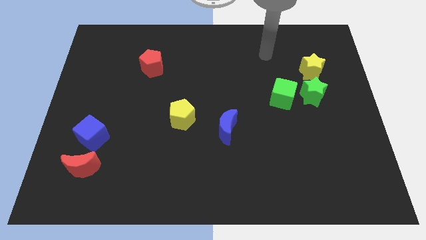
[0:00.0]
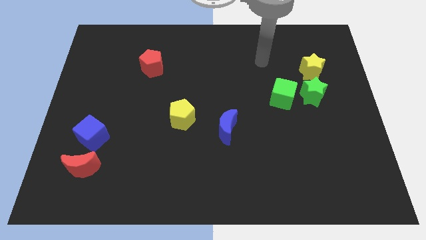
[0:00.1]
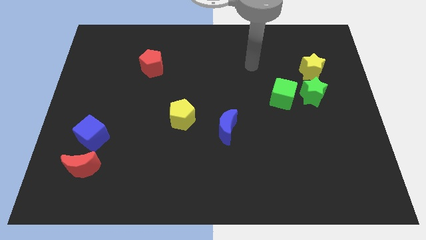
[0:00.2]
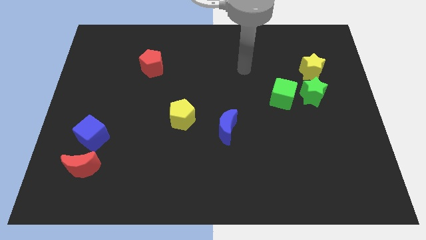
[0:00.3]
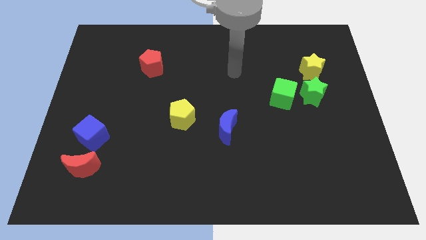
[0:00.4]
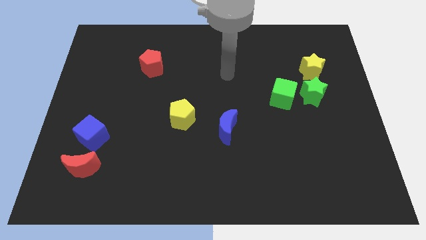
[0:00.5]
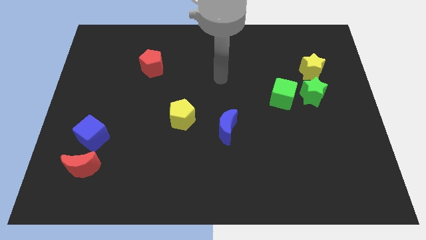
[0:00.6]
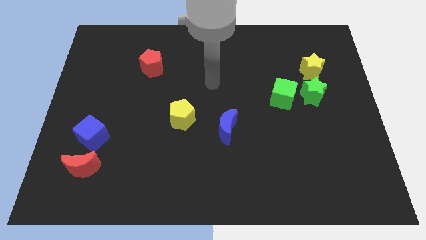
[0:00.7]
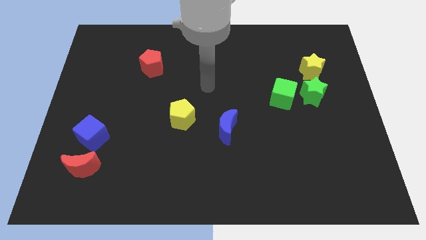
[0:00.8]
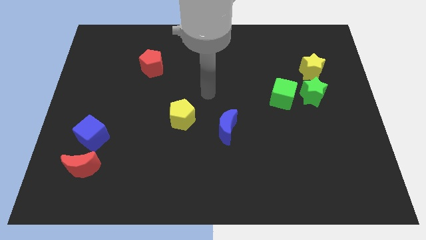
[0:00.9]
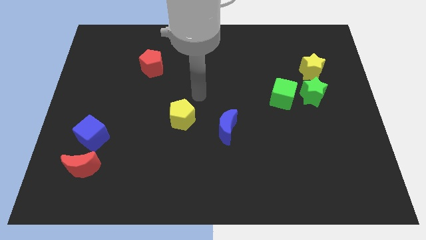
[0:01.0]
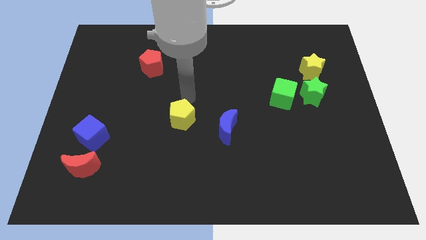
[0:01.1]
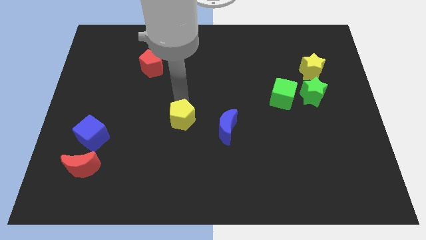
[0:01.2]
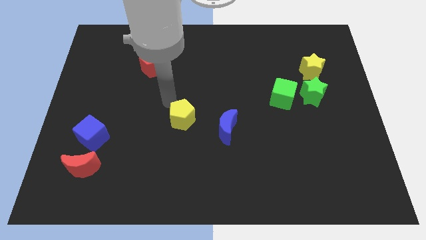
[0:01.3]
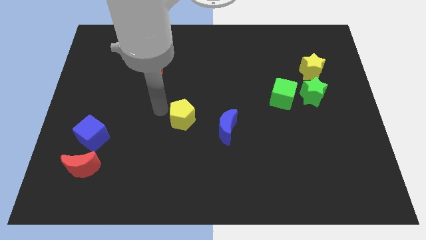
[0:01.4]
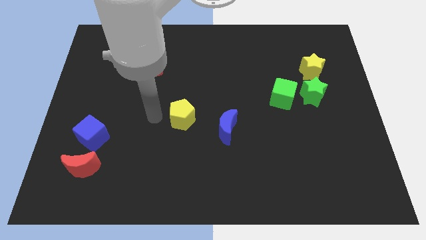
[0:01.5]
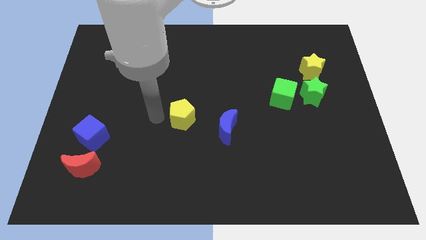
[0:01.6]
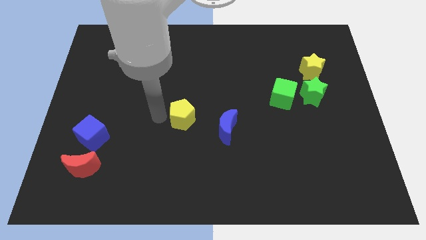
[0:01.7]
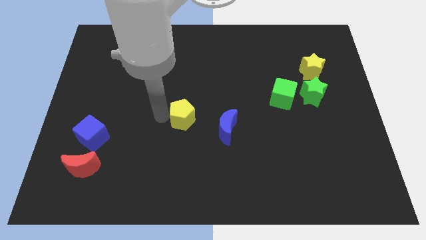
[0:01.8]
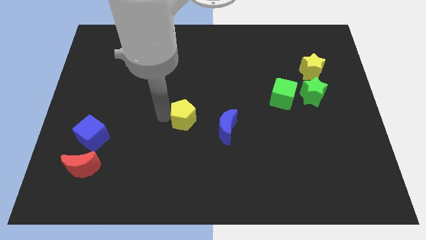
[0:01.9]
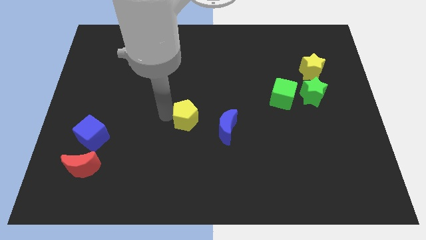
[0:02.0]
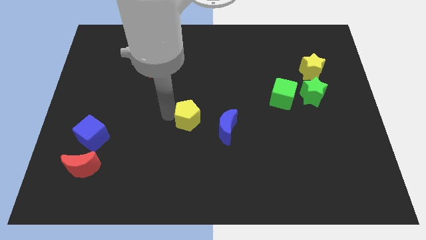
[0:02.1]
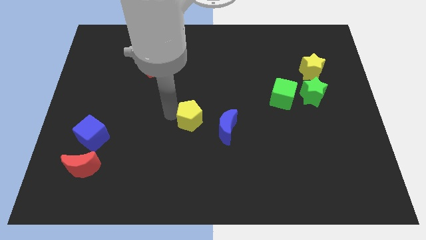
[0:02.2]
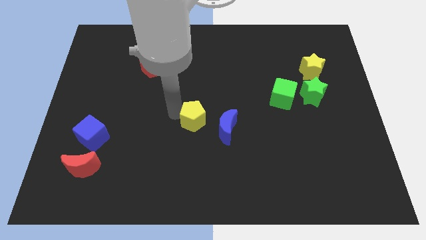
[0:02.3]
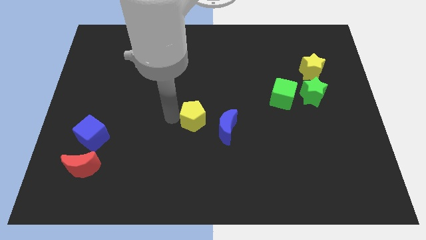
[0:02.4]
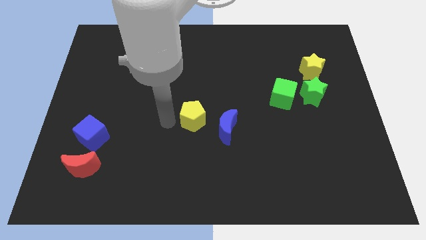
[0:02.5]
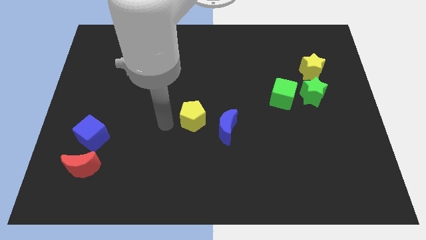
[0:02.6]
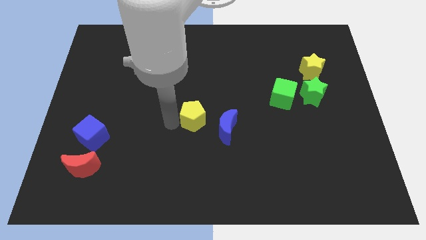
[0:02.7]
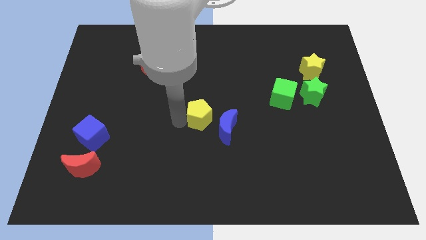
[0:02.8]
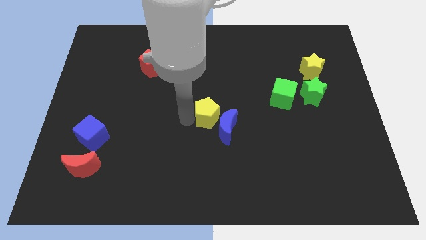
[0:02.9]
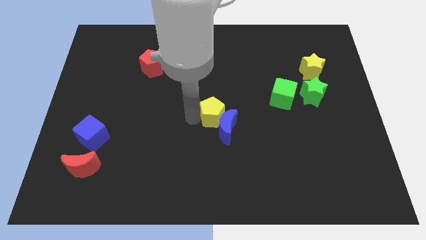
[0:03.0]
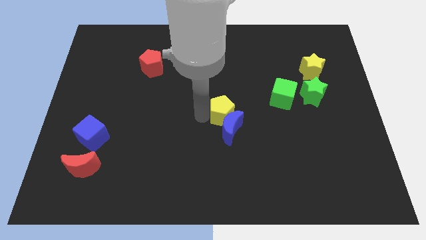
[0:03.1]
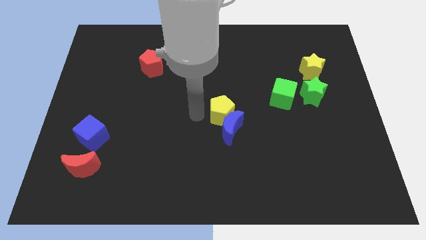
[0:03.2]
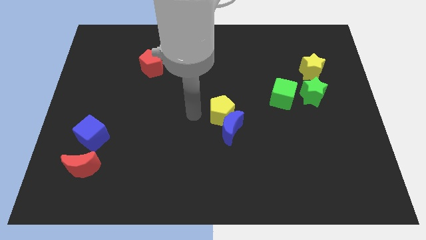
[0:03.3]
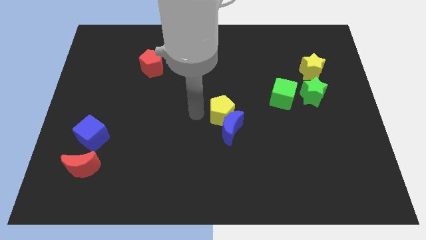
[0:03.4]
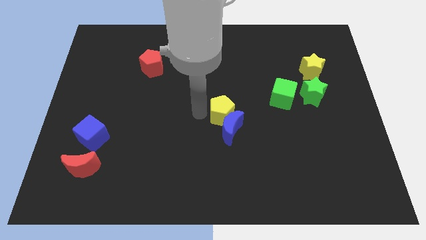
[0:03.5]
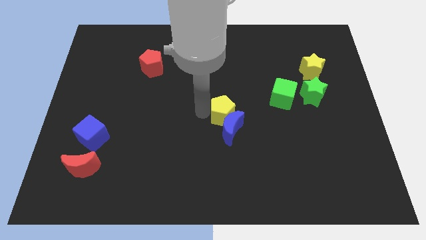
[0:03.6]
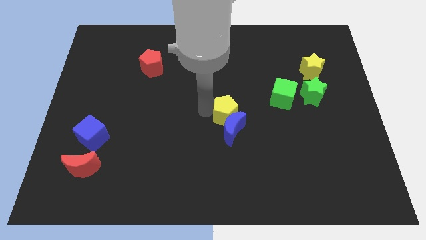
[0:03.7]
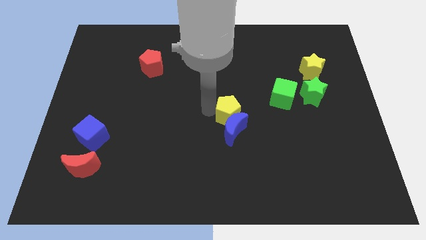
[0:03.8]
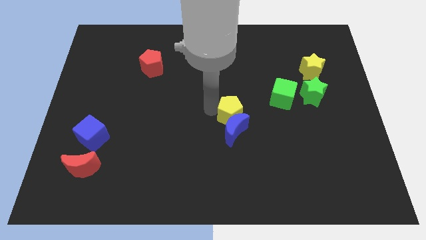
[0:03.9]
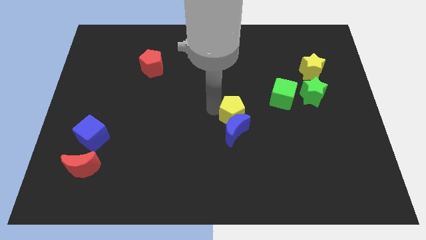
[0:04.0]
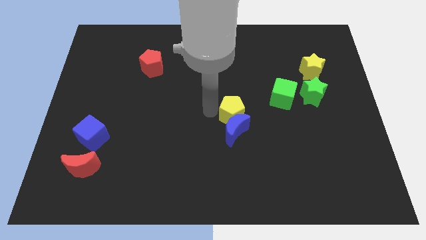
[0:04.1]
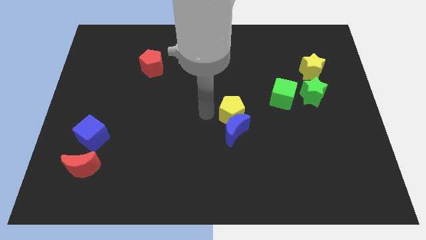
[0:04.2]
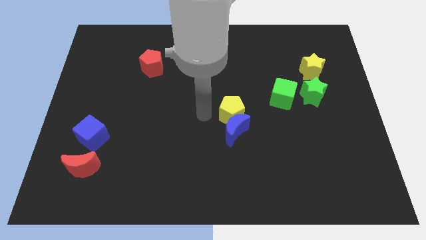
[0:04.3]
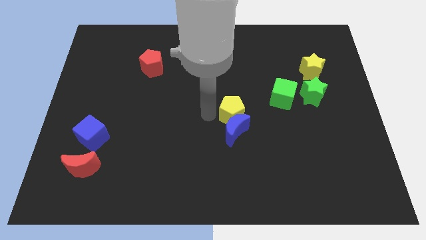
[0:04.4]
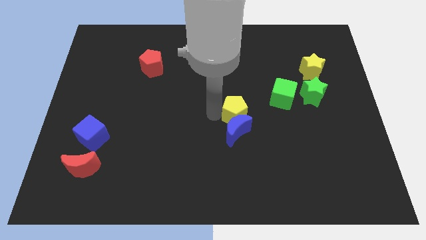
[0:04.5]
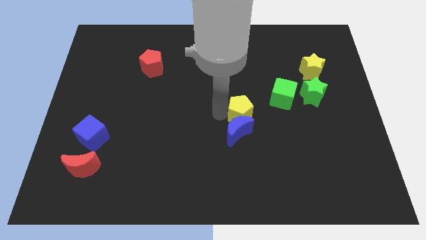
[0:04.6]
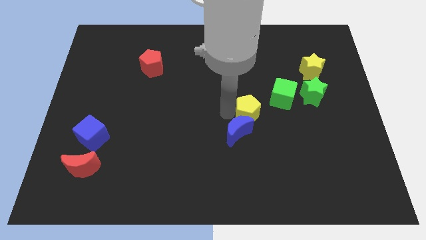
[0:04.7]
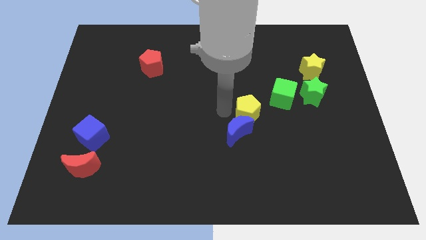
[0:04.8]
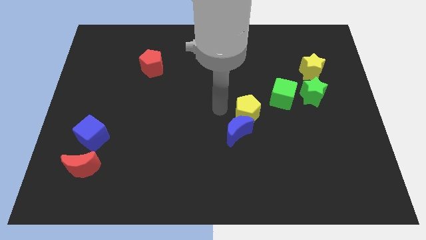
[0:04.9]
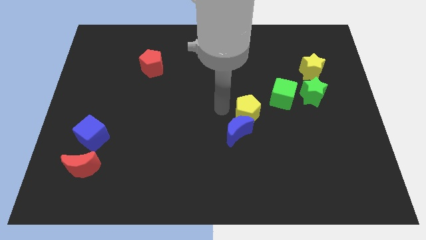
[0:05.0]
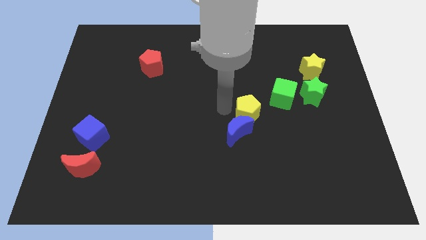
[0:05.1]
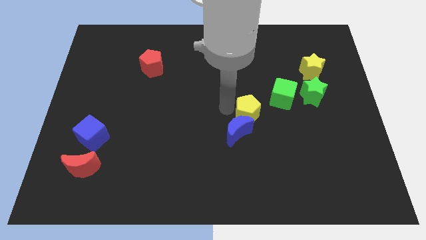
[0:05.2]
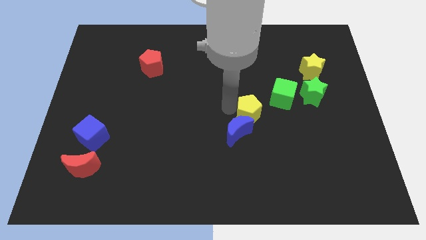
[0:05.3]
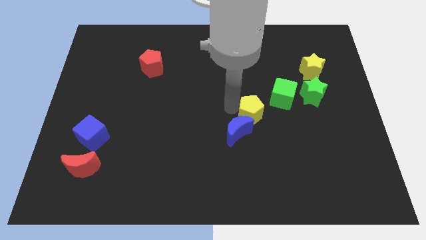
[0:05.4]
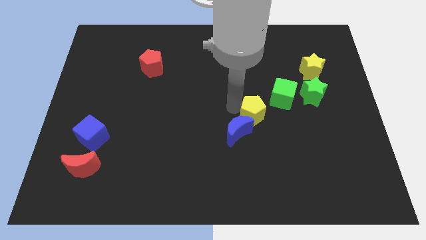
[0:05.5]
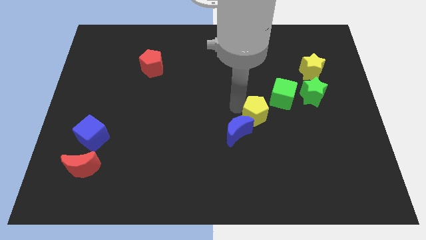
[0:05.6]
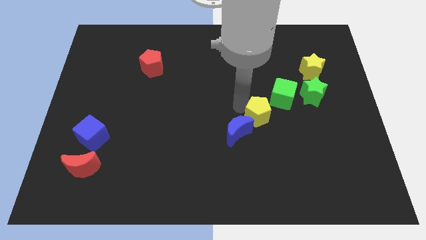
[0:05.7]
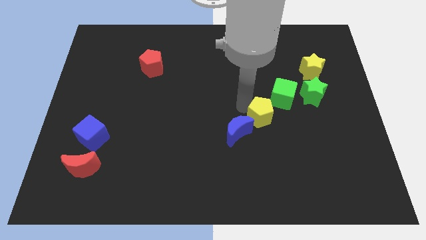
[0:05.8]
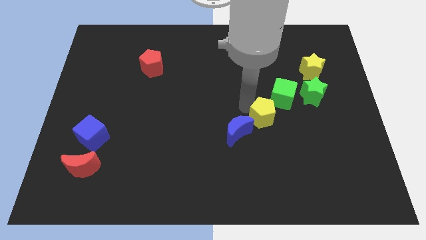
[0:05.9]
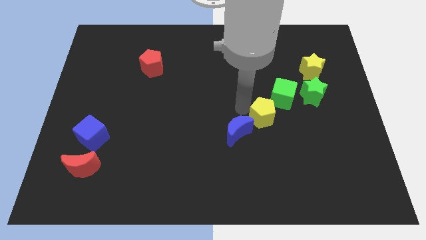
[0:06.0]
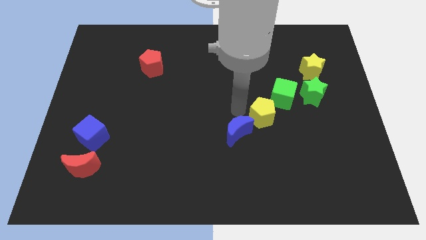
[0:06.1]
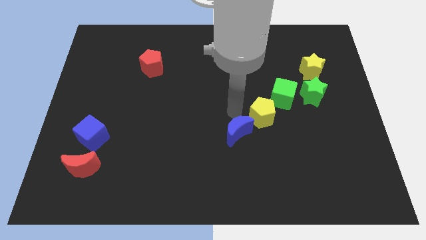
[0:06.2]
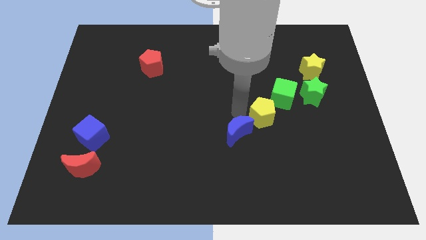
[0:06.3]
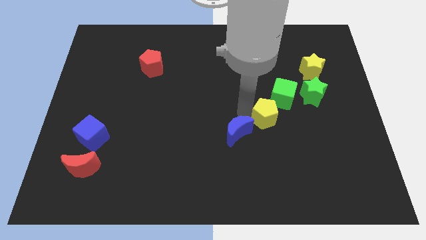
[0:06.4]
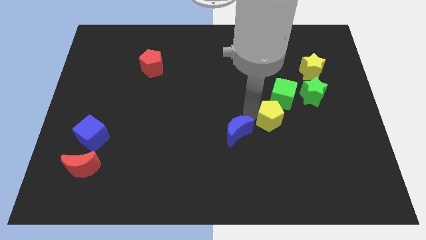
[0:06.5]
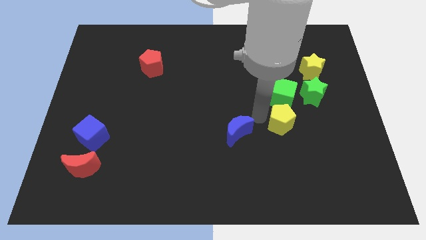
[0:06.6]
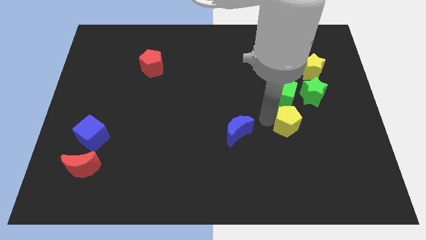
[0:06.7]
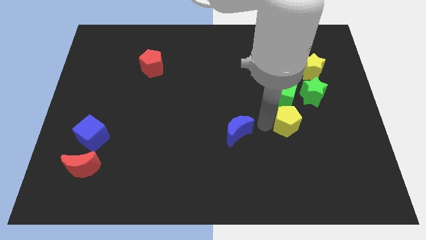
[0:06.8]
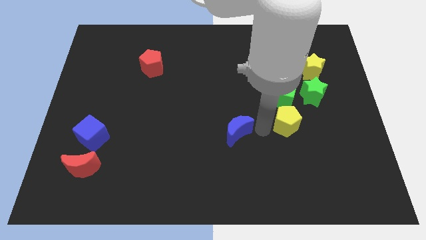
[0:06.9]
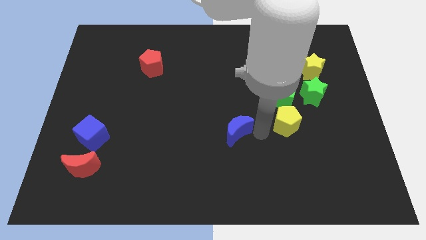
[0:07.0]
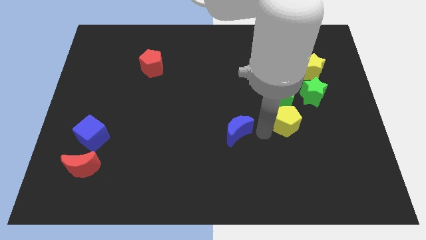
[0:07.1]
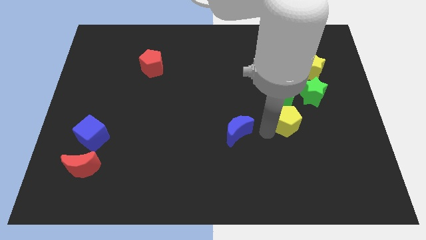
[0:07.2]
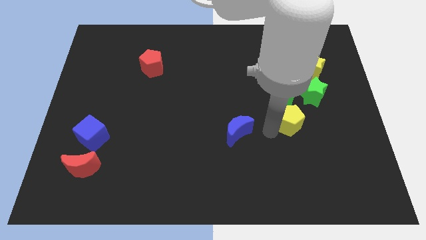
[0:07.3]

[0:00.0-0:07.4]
move the yellow pentagon diagonally down and to the right of the green cube

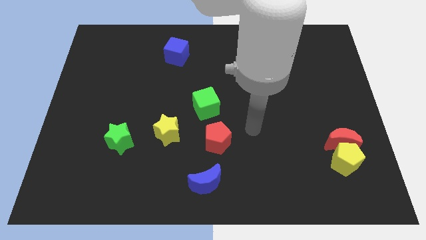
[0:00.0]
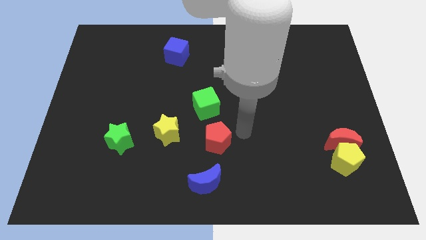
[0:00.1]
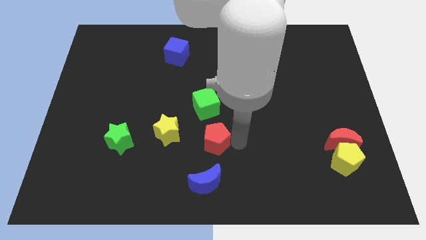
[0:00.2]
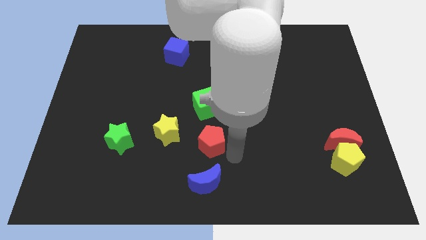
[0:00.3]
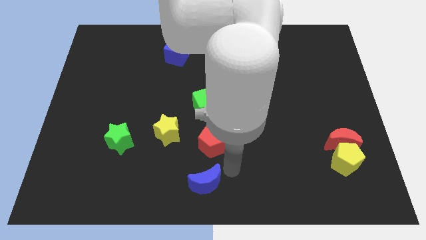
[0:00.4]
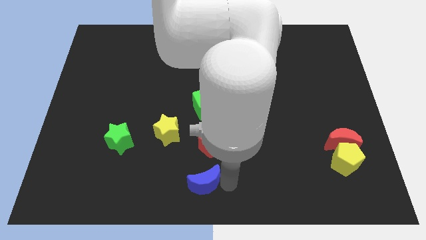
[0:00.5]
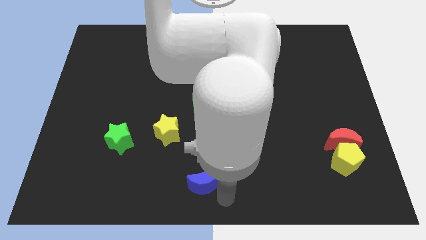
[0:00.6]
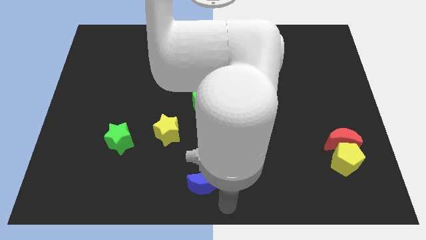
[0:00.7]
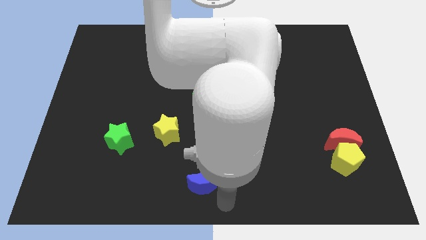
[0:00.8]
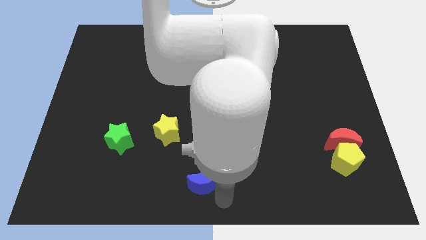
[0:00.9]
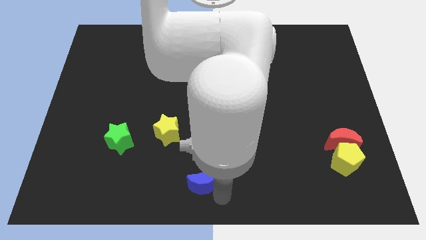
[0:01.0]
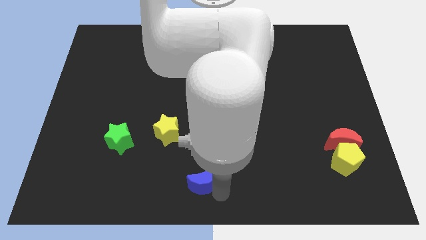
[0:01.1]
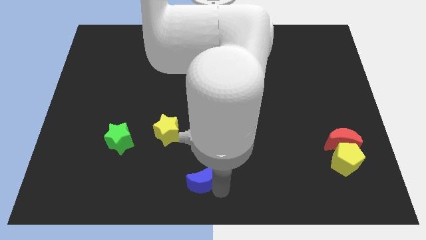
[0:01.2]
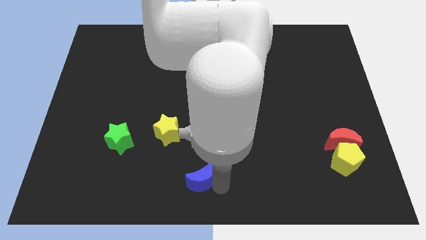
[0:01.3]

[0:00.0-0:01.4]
slide the blue moon diagonally down and to the left of the red pentagon
